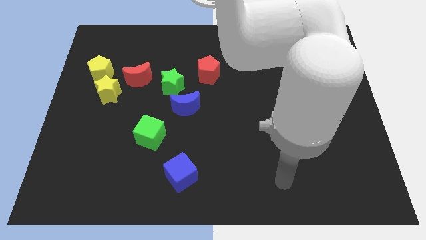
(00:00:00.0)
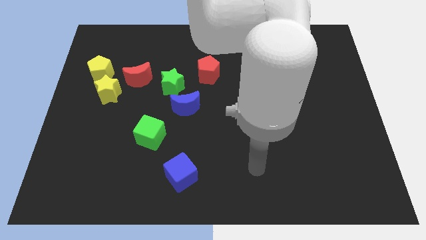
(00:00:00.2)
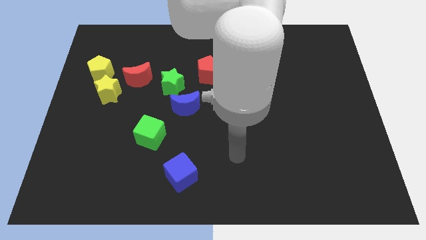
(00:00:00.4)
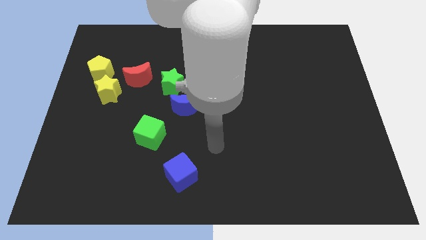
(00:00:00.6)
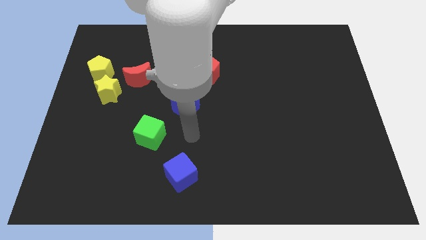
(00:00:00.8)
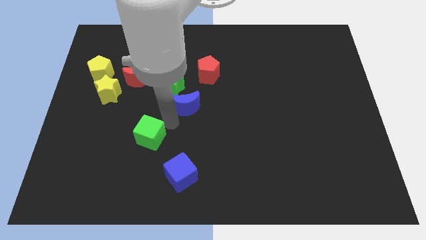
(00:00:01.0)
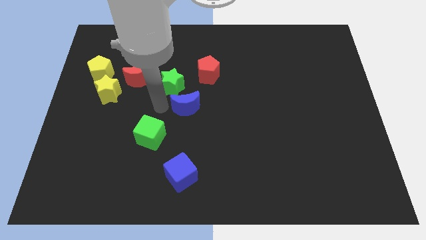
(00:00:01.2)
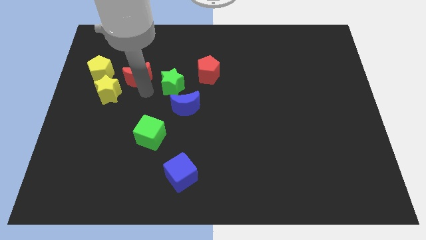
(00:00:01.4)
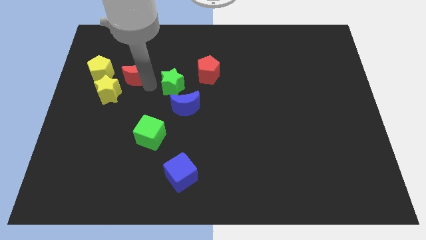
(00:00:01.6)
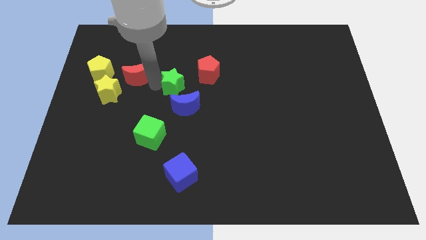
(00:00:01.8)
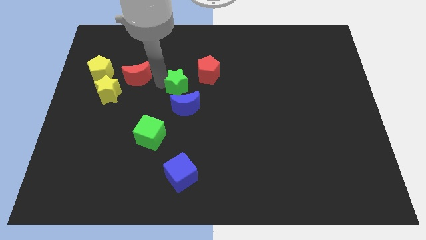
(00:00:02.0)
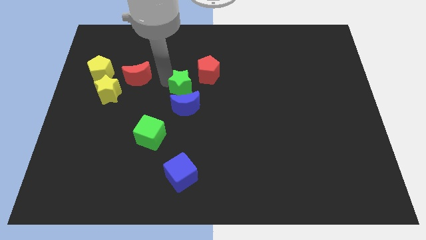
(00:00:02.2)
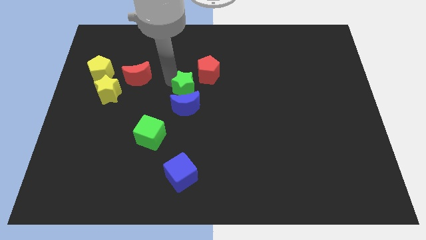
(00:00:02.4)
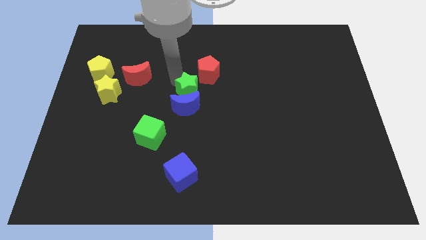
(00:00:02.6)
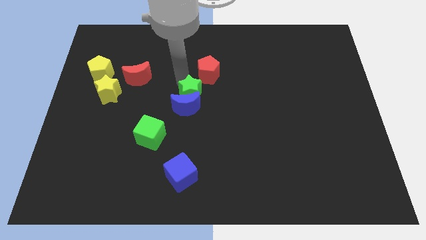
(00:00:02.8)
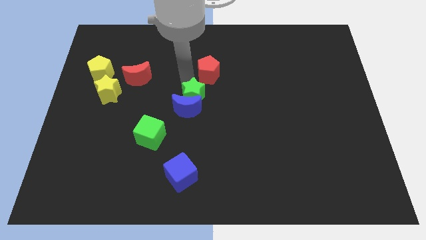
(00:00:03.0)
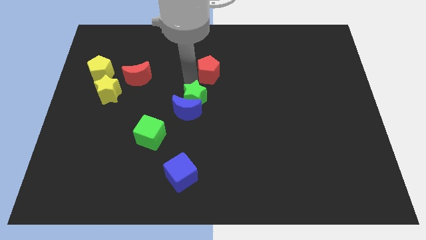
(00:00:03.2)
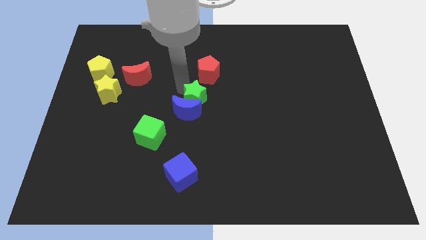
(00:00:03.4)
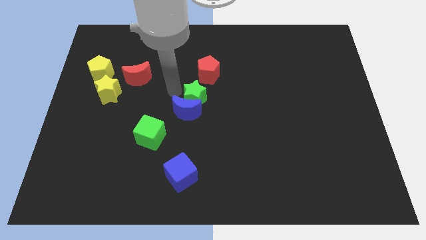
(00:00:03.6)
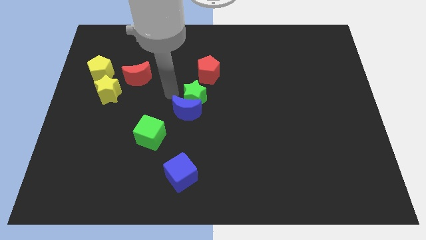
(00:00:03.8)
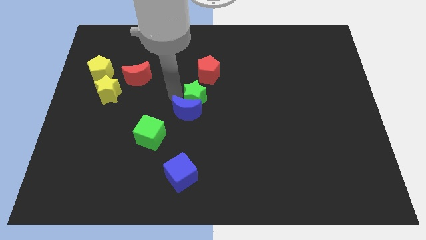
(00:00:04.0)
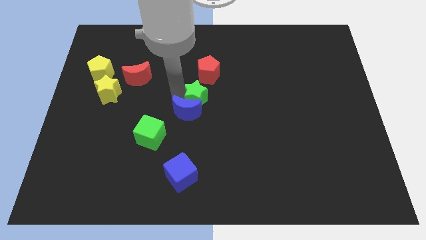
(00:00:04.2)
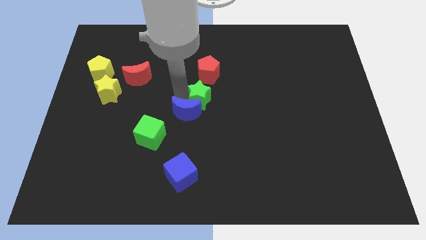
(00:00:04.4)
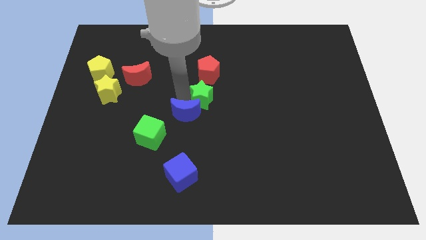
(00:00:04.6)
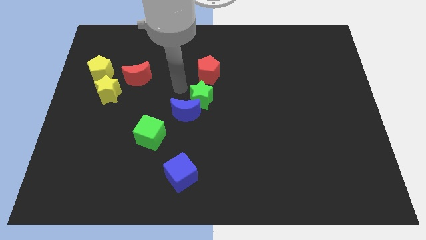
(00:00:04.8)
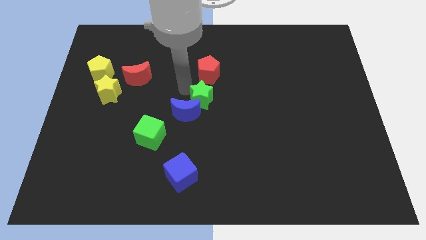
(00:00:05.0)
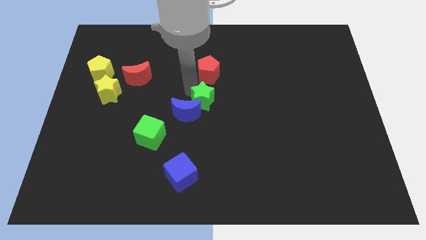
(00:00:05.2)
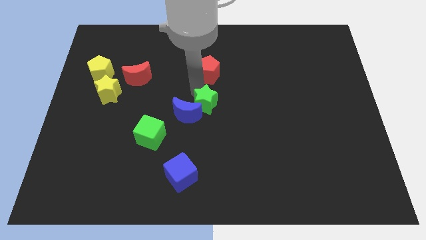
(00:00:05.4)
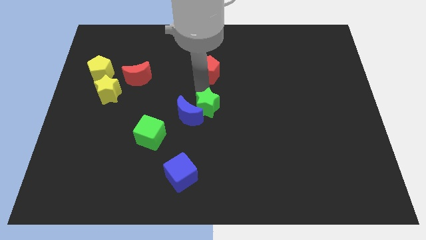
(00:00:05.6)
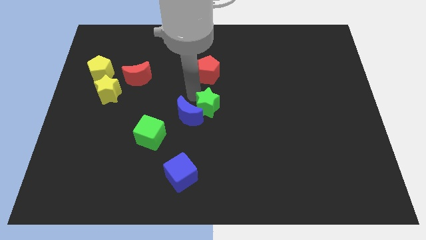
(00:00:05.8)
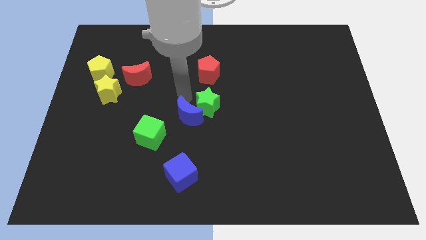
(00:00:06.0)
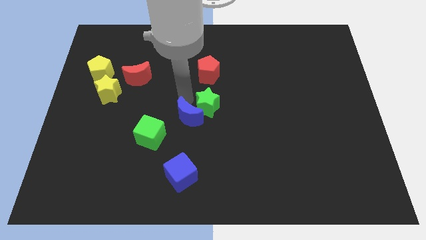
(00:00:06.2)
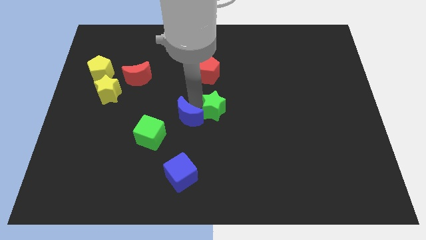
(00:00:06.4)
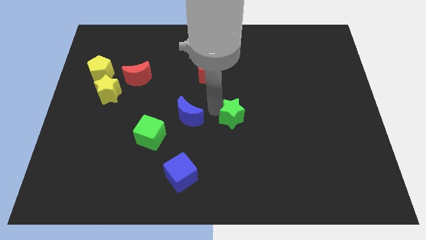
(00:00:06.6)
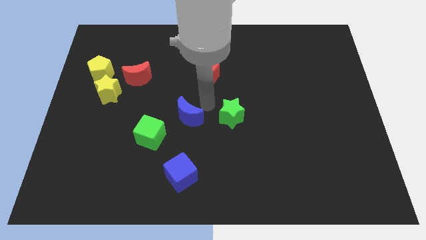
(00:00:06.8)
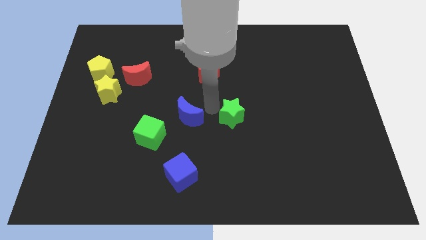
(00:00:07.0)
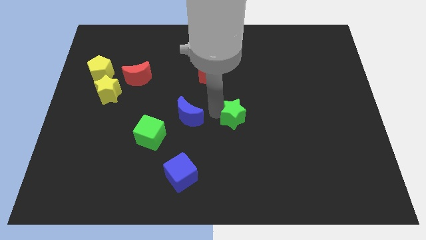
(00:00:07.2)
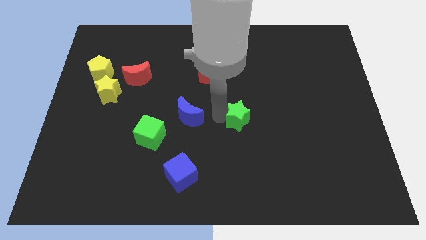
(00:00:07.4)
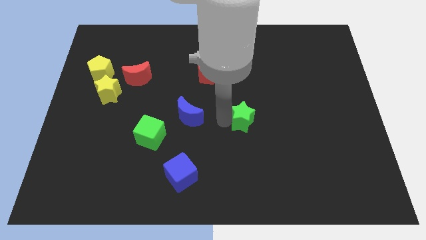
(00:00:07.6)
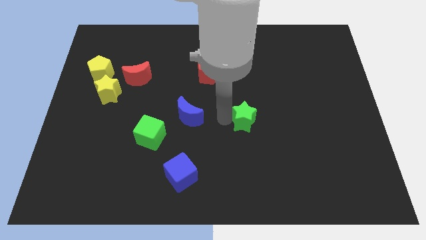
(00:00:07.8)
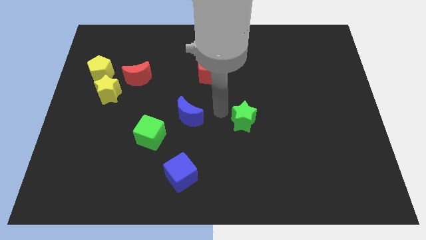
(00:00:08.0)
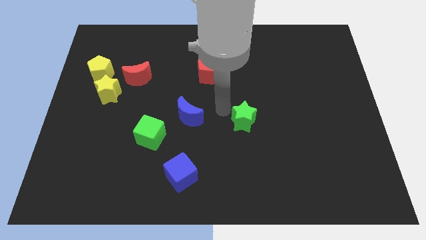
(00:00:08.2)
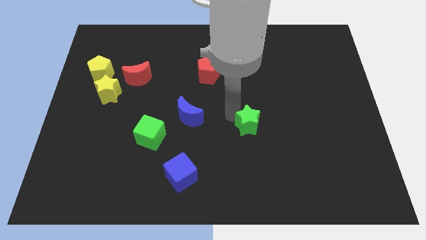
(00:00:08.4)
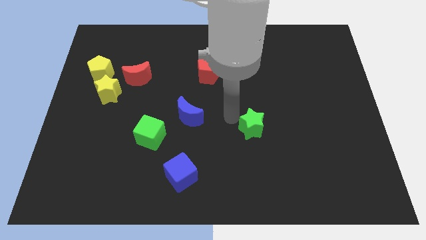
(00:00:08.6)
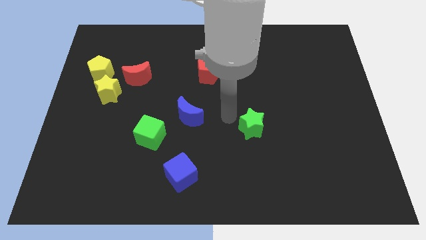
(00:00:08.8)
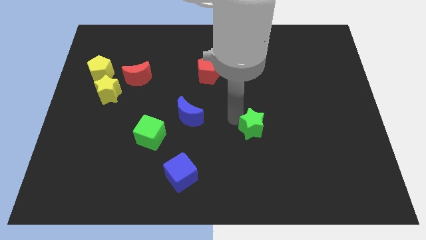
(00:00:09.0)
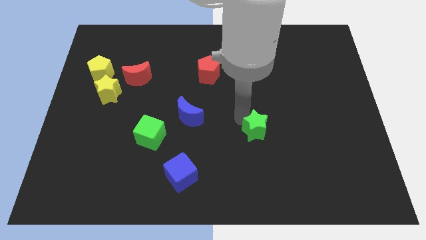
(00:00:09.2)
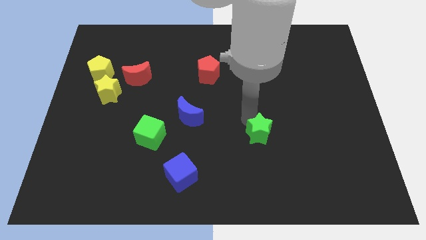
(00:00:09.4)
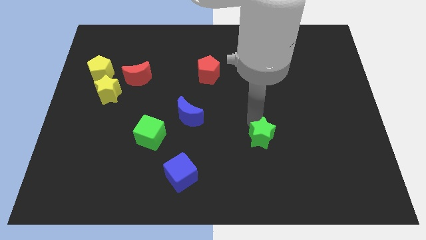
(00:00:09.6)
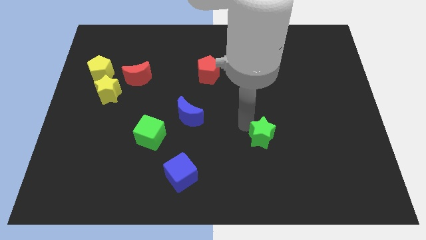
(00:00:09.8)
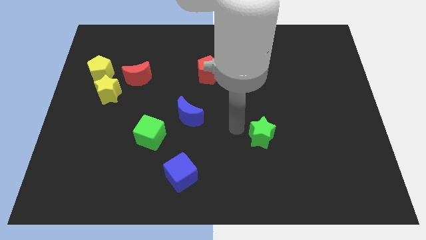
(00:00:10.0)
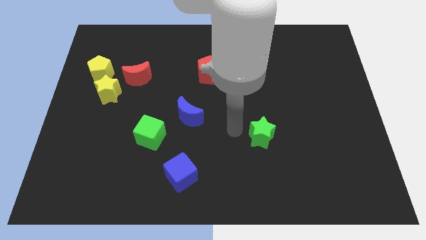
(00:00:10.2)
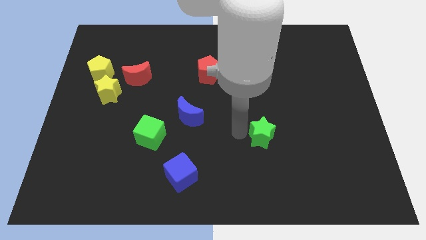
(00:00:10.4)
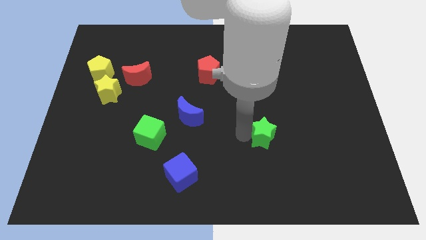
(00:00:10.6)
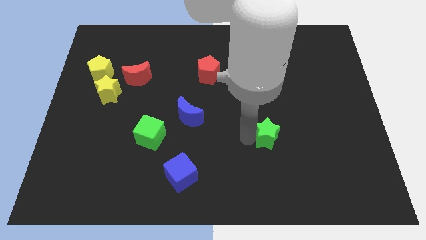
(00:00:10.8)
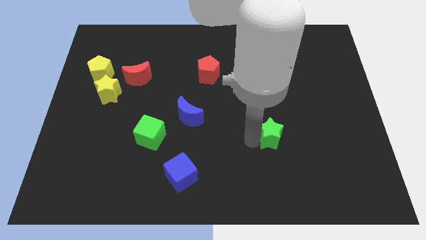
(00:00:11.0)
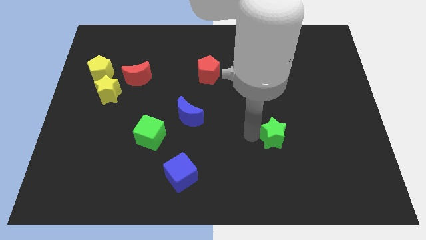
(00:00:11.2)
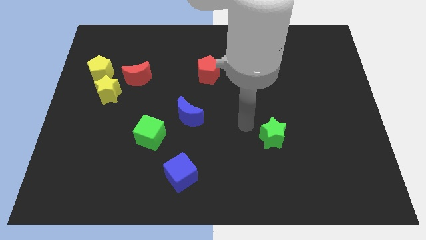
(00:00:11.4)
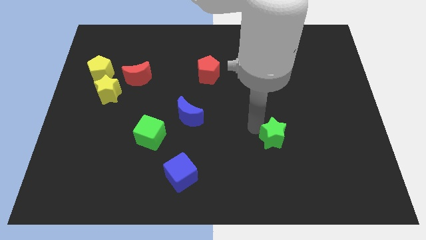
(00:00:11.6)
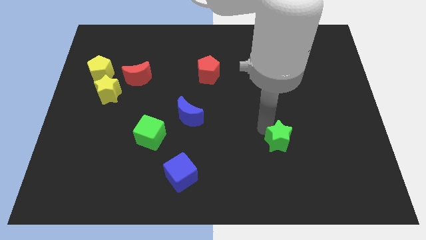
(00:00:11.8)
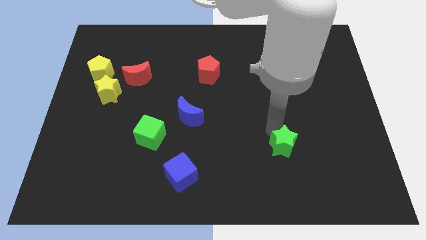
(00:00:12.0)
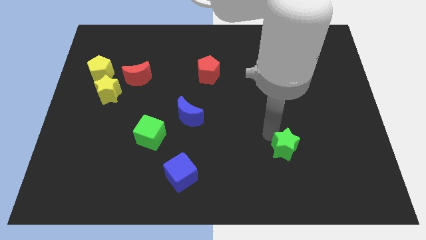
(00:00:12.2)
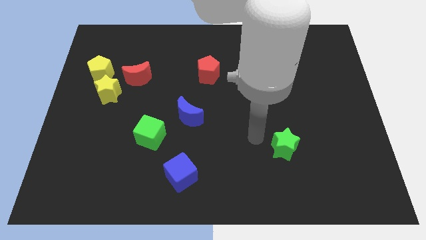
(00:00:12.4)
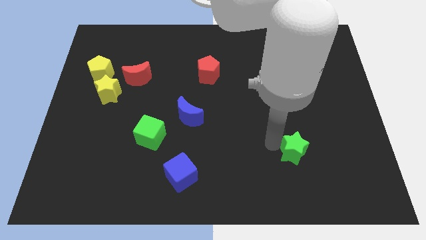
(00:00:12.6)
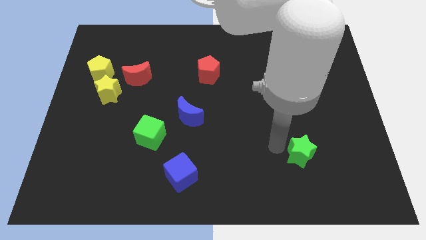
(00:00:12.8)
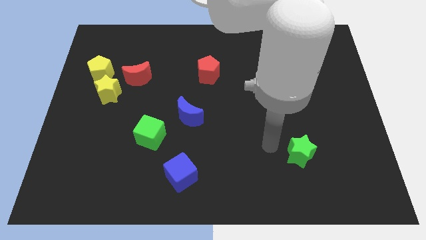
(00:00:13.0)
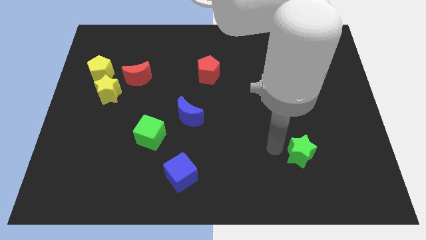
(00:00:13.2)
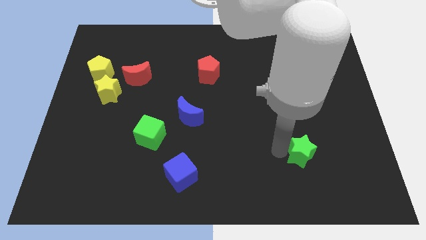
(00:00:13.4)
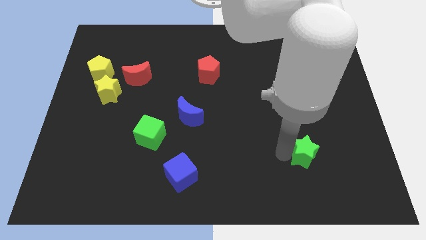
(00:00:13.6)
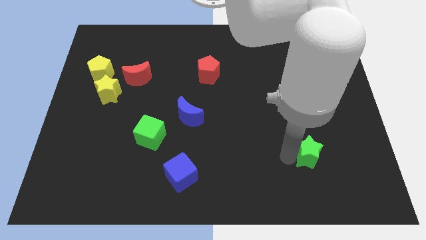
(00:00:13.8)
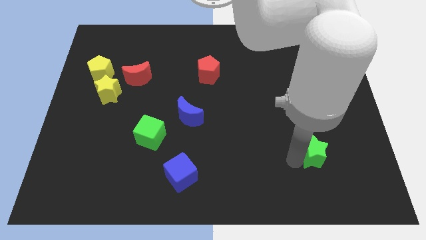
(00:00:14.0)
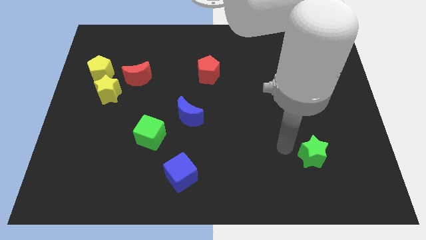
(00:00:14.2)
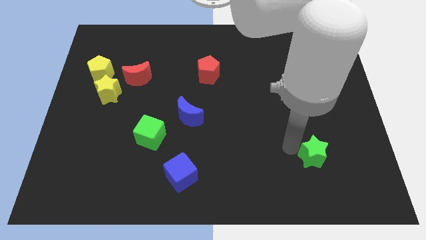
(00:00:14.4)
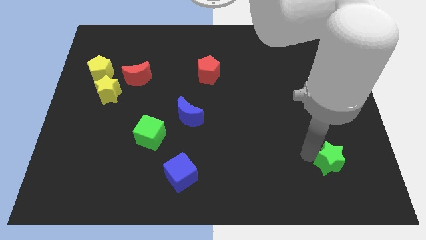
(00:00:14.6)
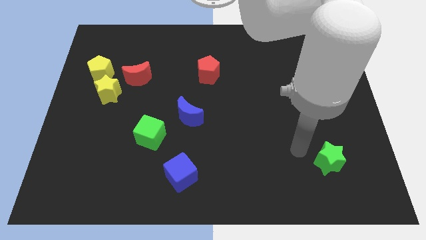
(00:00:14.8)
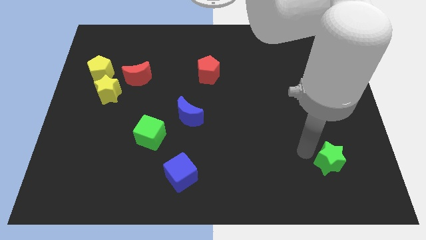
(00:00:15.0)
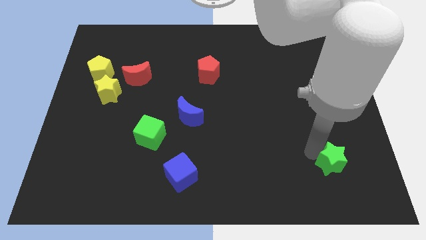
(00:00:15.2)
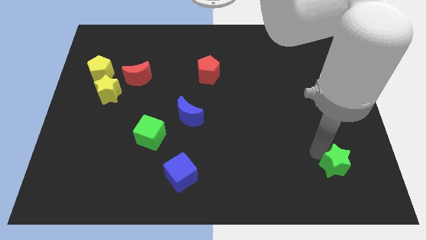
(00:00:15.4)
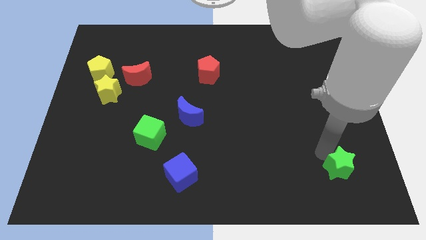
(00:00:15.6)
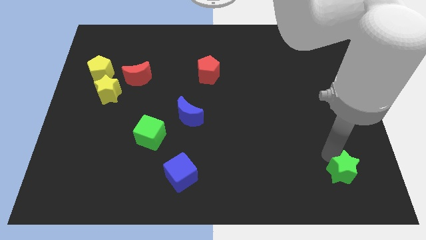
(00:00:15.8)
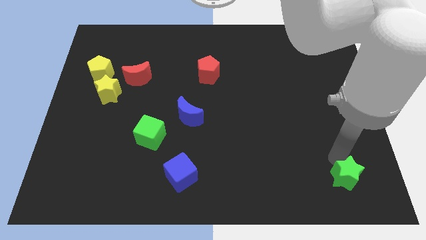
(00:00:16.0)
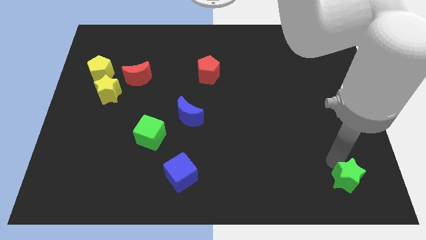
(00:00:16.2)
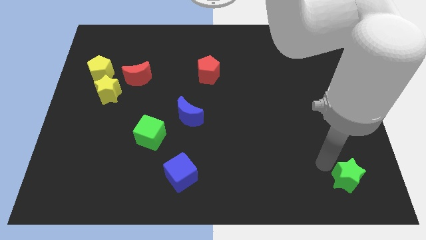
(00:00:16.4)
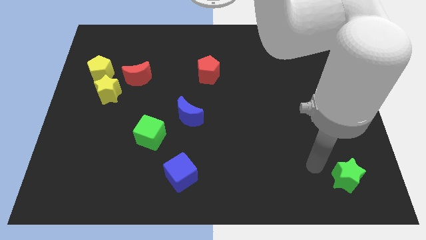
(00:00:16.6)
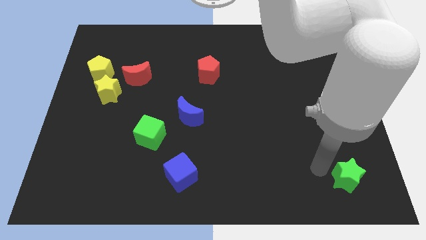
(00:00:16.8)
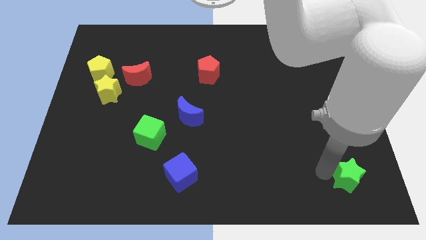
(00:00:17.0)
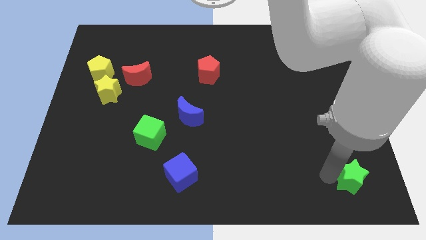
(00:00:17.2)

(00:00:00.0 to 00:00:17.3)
push the green star to the bottom right
